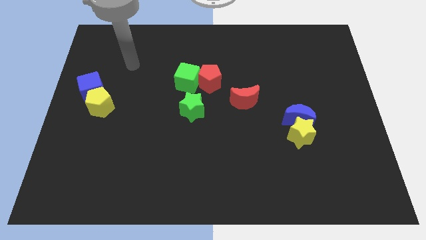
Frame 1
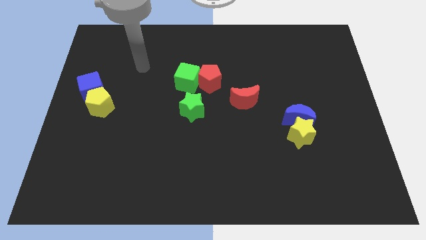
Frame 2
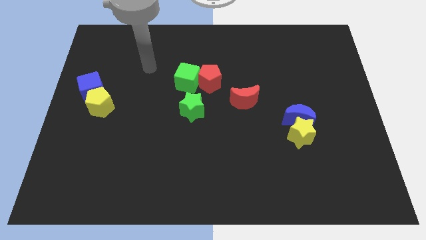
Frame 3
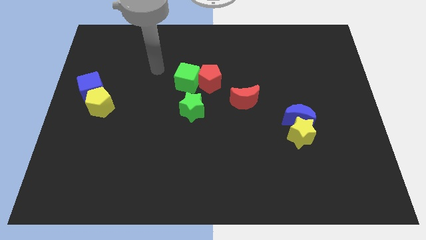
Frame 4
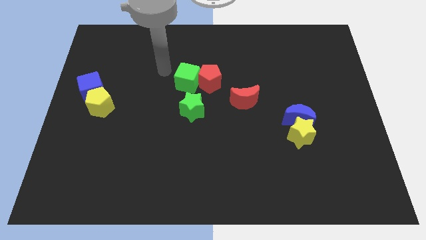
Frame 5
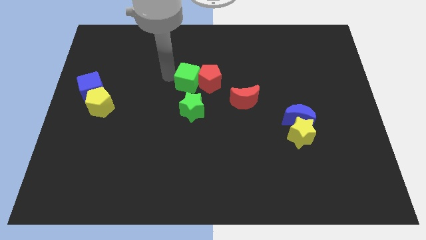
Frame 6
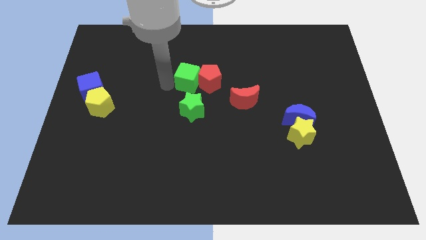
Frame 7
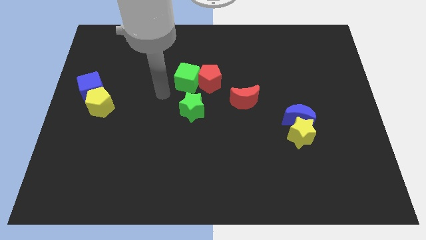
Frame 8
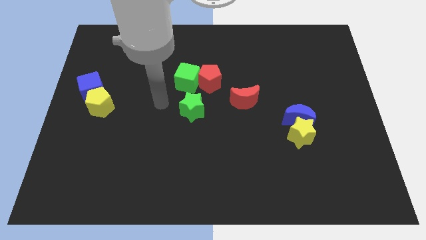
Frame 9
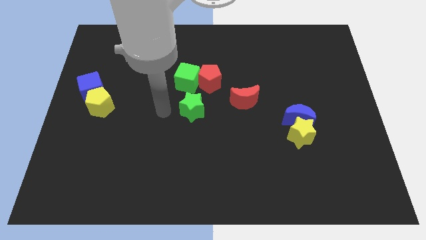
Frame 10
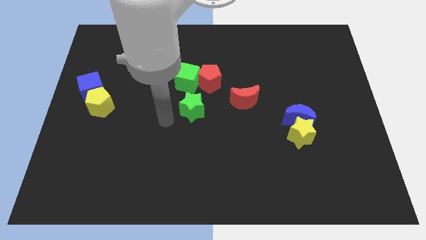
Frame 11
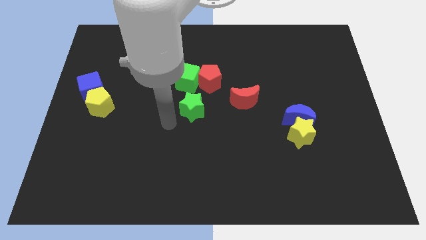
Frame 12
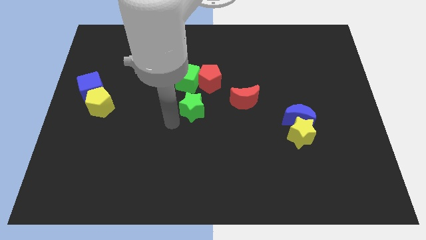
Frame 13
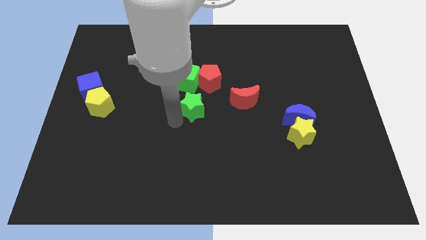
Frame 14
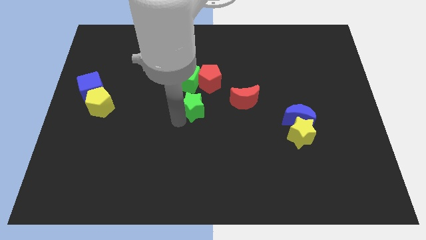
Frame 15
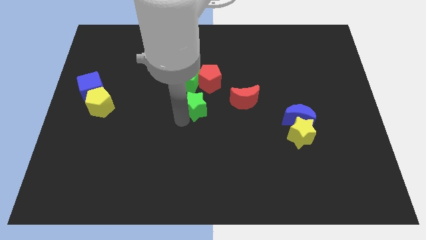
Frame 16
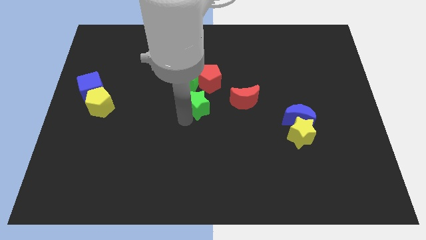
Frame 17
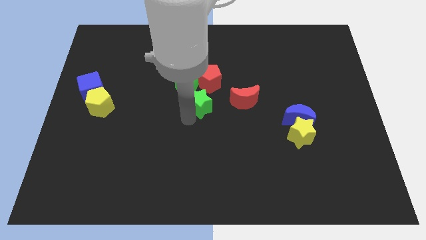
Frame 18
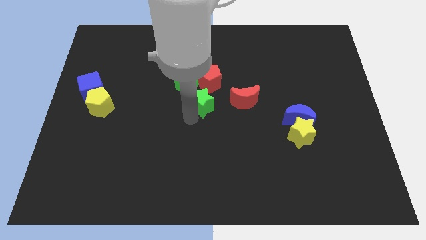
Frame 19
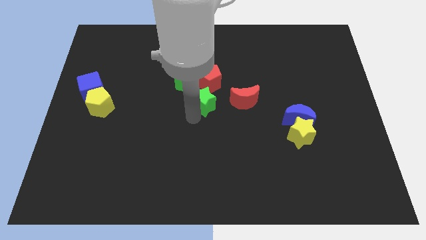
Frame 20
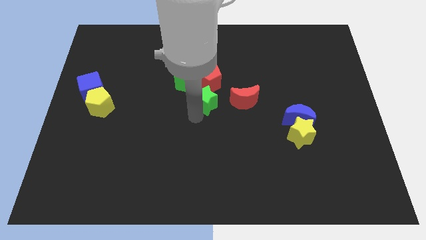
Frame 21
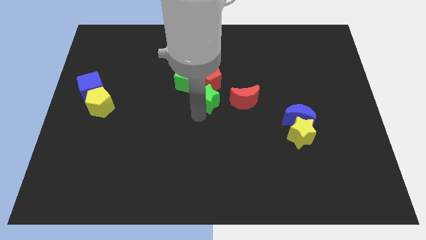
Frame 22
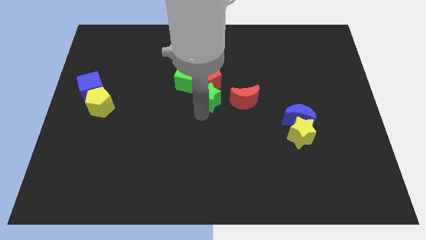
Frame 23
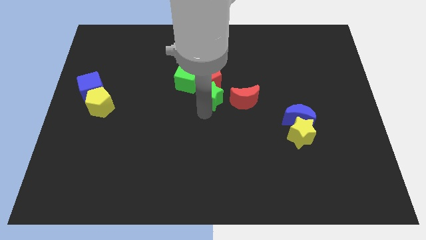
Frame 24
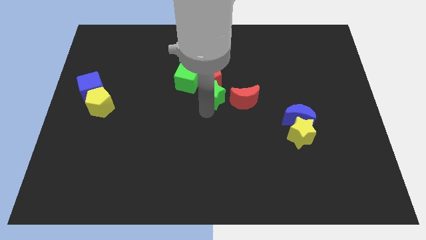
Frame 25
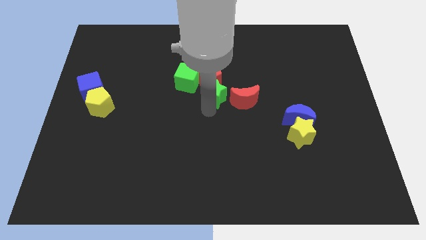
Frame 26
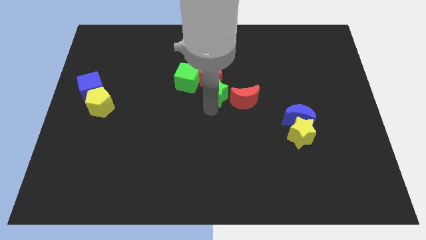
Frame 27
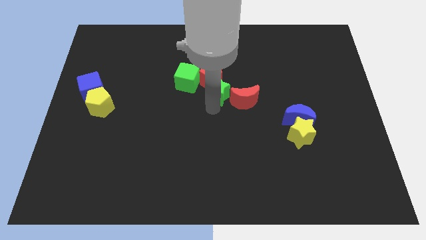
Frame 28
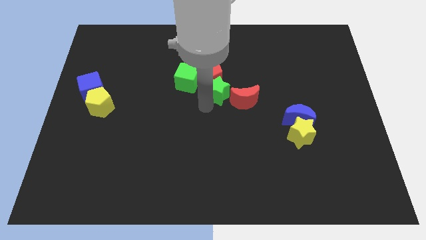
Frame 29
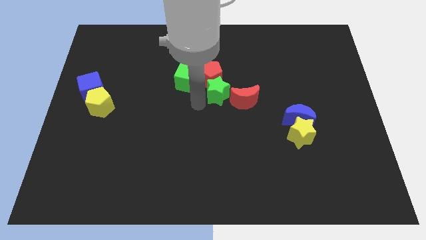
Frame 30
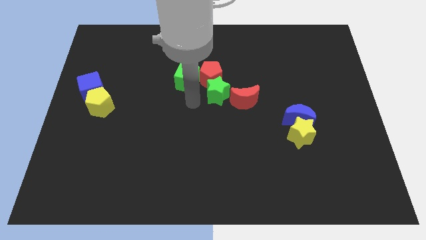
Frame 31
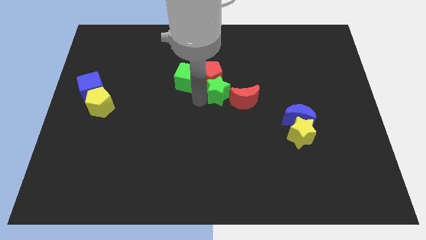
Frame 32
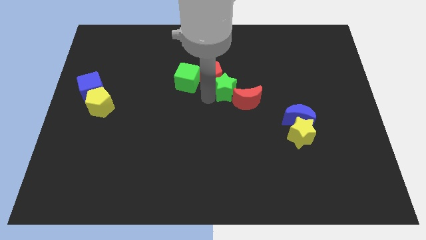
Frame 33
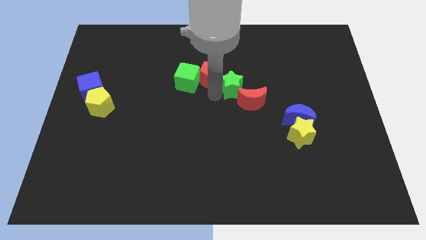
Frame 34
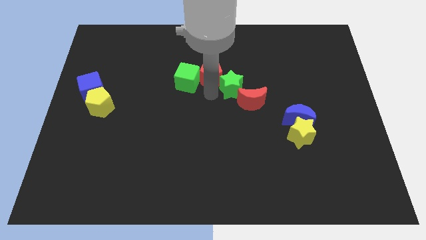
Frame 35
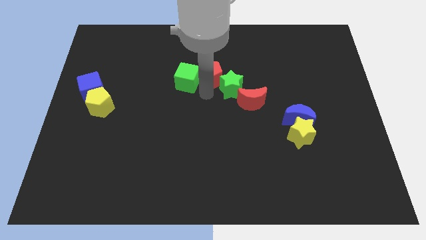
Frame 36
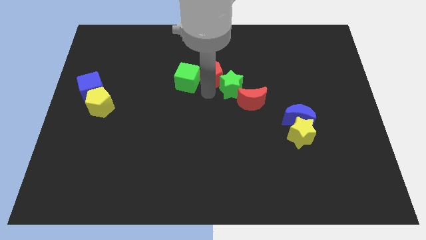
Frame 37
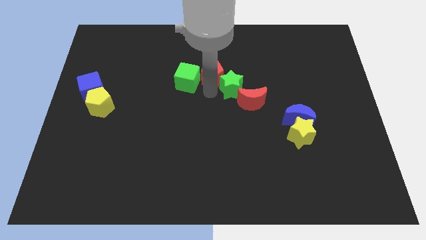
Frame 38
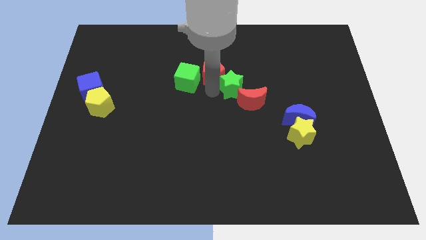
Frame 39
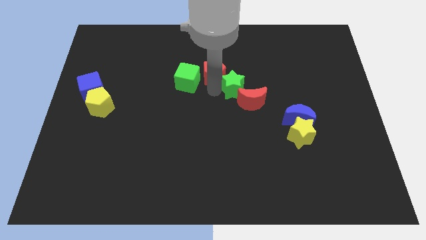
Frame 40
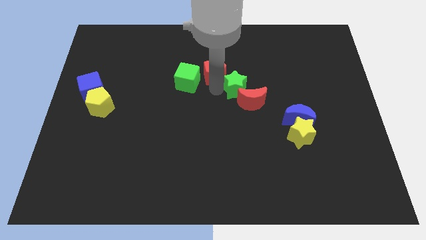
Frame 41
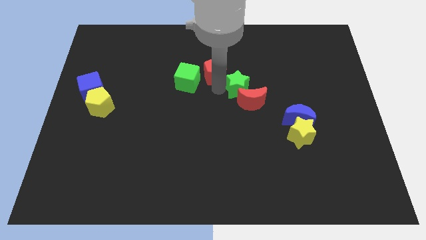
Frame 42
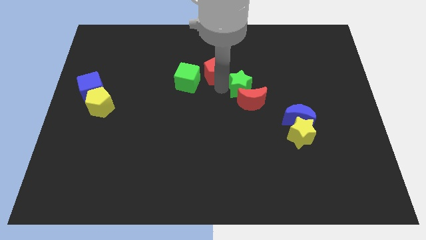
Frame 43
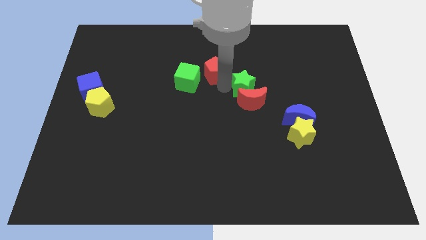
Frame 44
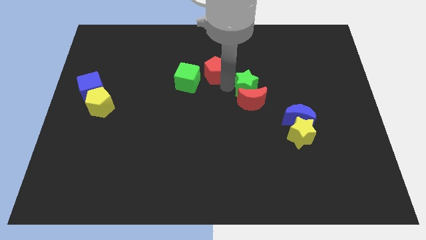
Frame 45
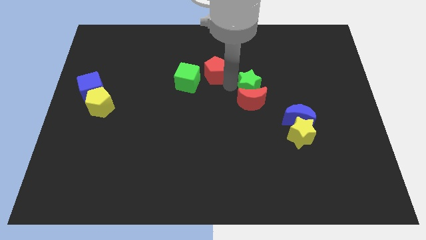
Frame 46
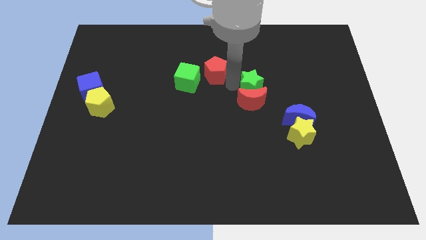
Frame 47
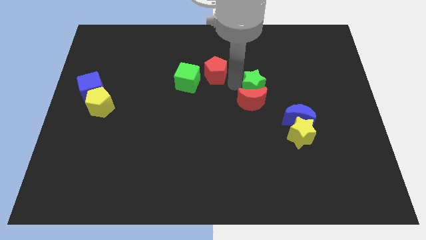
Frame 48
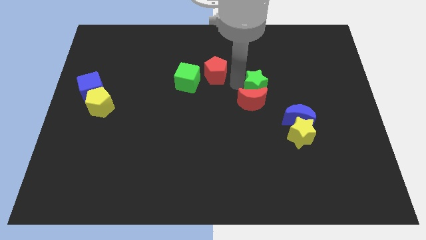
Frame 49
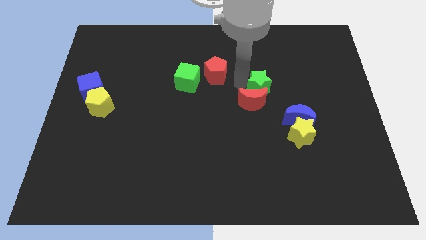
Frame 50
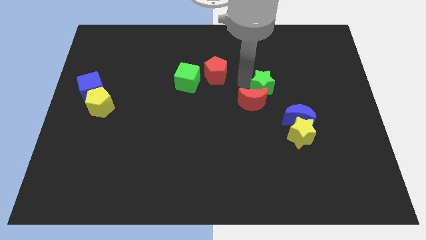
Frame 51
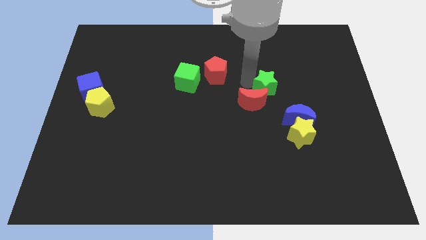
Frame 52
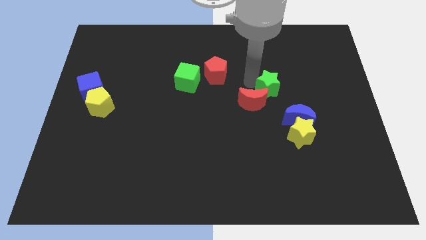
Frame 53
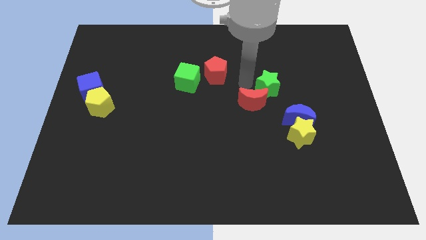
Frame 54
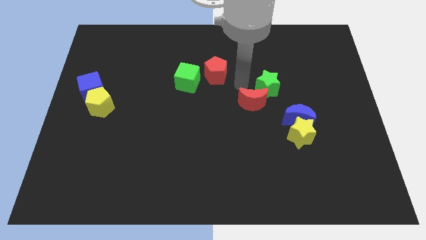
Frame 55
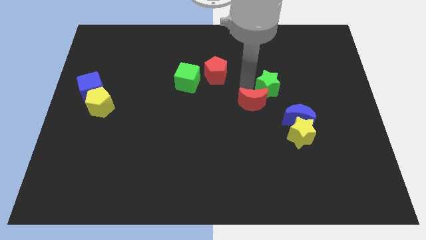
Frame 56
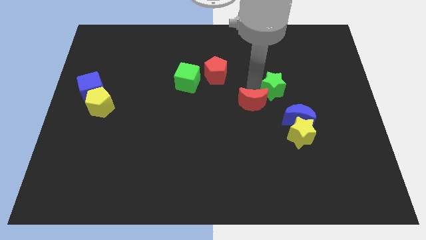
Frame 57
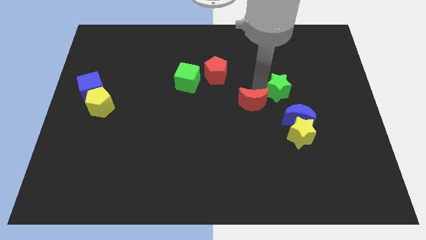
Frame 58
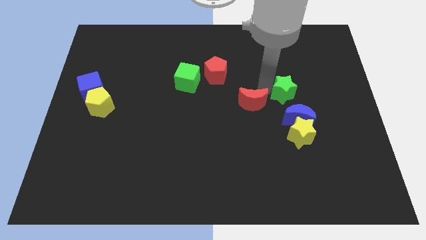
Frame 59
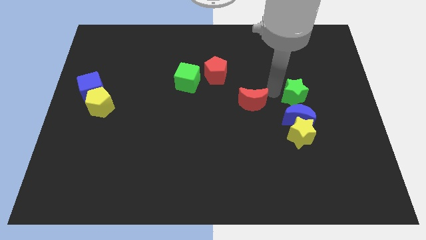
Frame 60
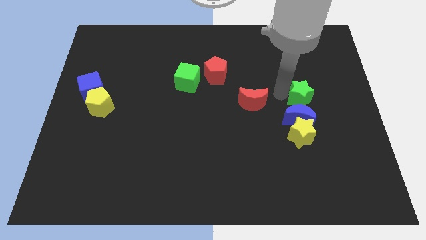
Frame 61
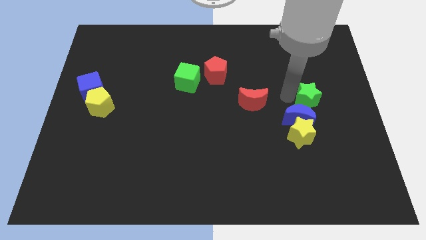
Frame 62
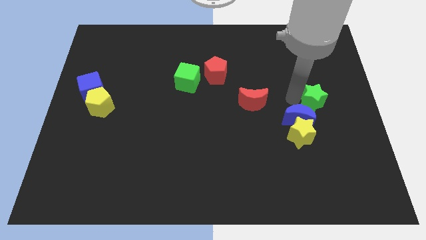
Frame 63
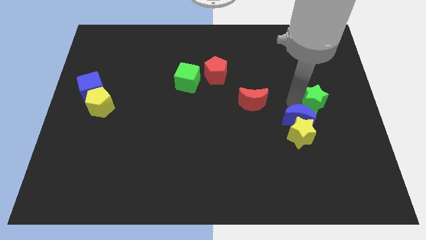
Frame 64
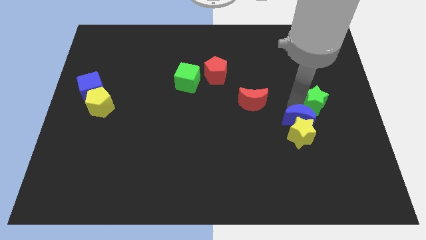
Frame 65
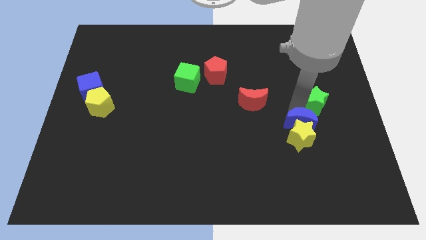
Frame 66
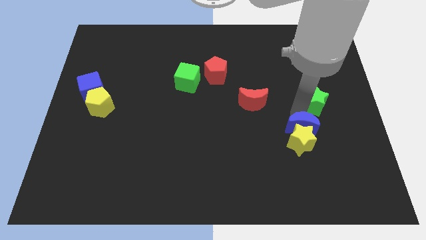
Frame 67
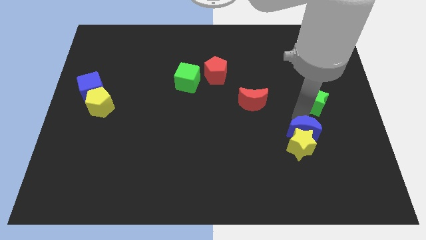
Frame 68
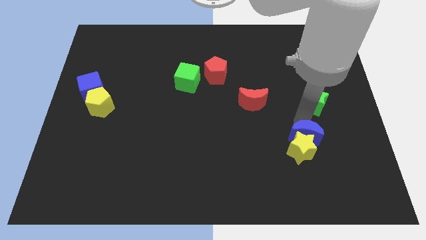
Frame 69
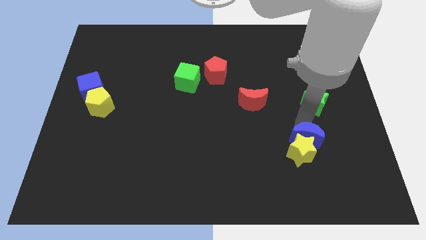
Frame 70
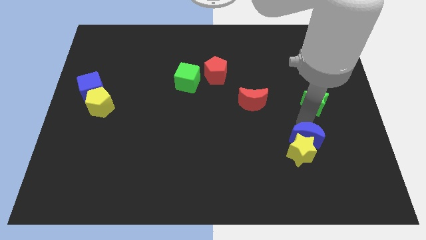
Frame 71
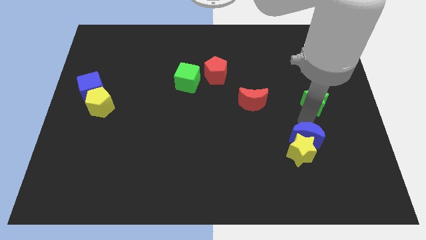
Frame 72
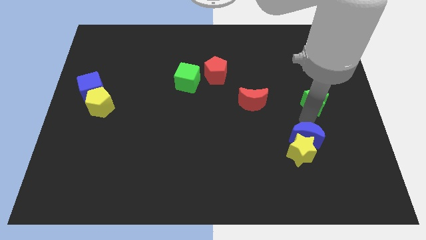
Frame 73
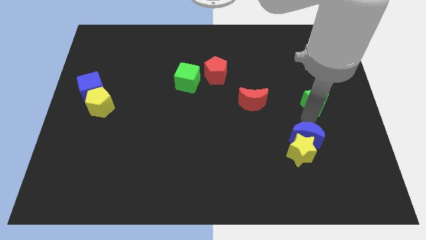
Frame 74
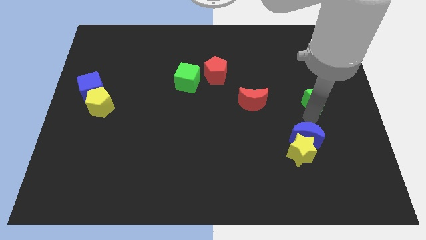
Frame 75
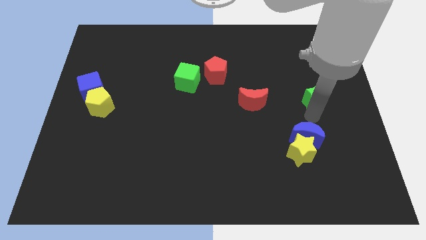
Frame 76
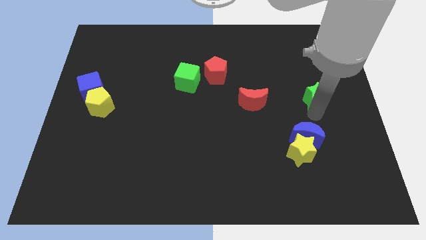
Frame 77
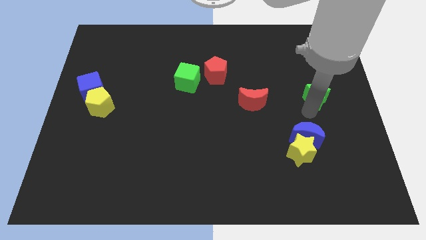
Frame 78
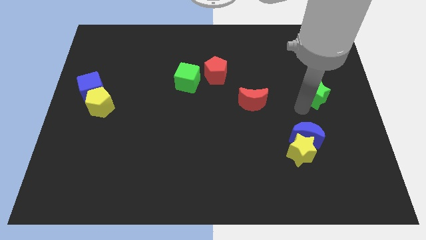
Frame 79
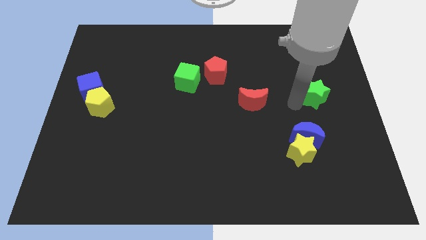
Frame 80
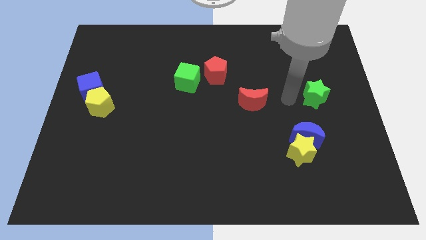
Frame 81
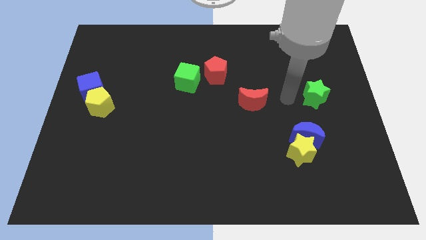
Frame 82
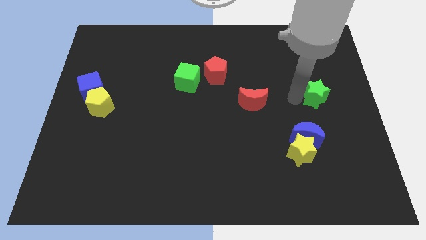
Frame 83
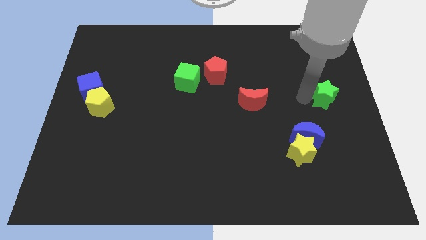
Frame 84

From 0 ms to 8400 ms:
push the green star to the right side of the board
